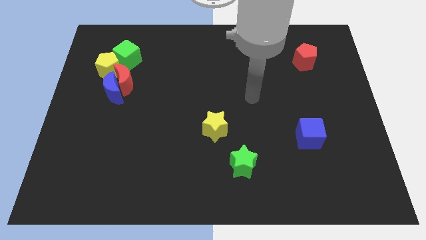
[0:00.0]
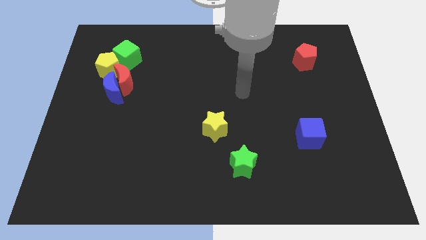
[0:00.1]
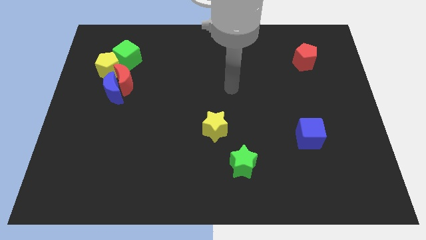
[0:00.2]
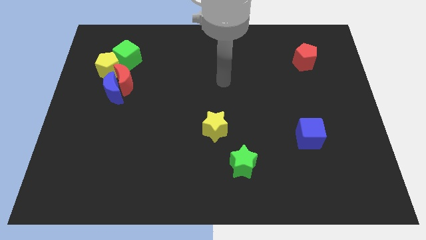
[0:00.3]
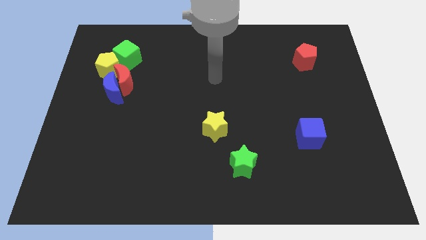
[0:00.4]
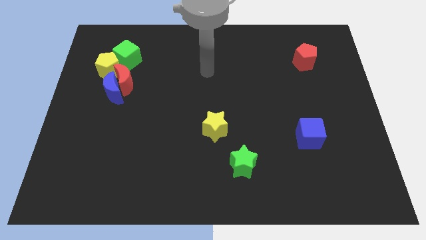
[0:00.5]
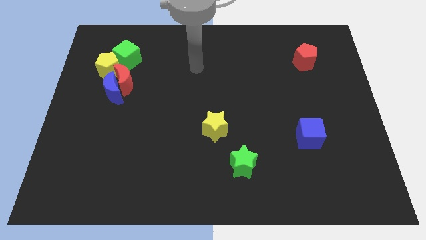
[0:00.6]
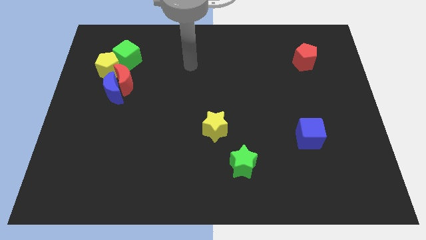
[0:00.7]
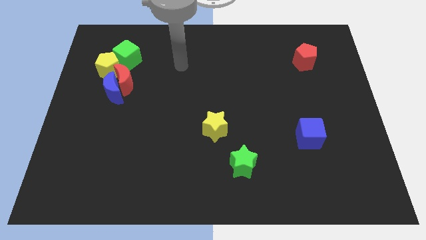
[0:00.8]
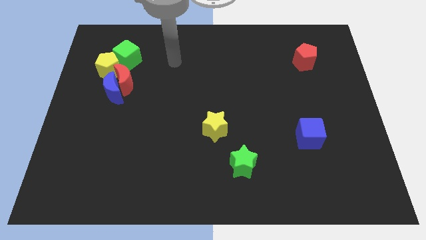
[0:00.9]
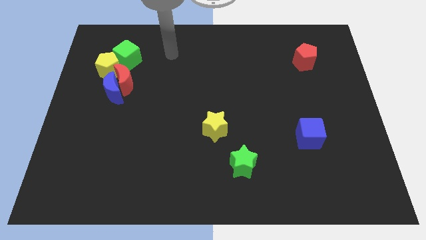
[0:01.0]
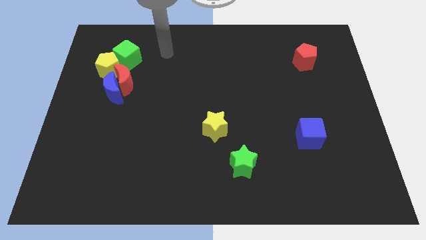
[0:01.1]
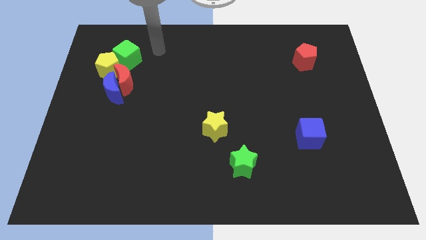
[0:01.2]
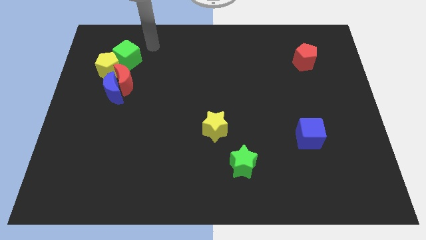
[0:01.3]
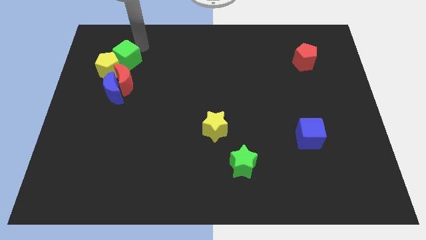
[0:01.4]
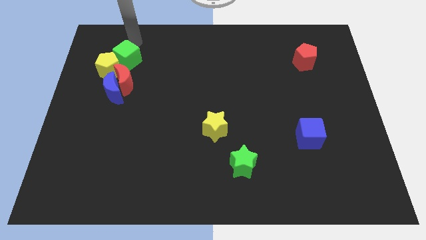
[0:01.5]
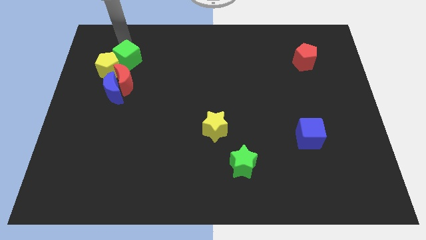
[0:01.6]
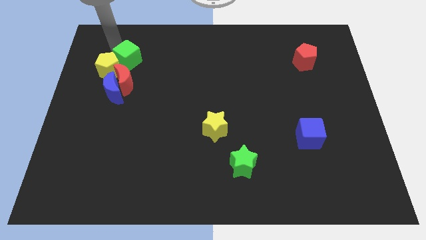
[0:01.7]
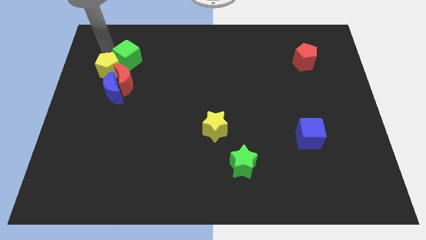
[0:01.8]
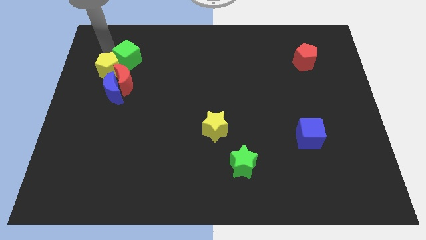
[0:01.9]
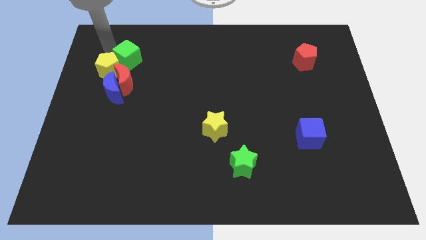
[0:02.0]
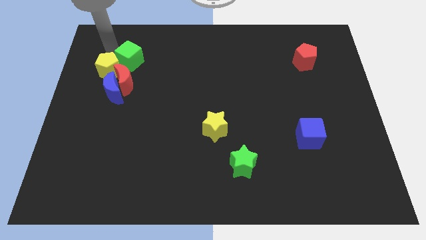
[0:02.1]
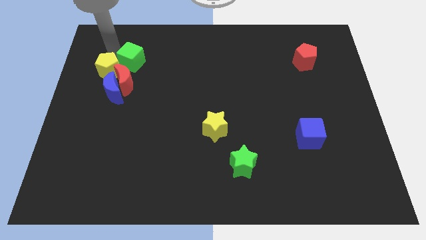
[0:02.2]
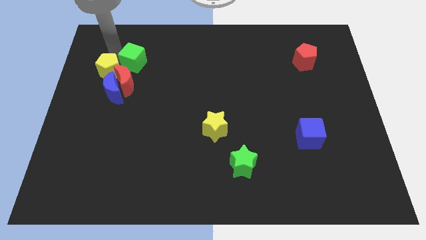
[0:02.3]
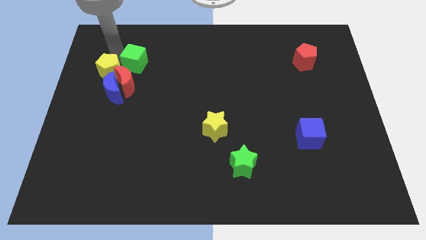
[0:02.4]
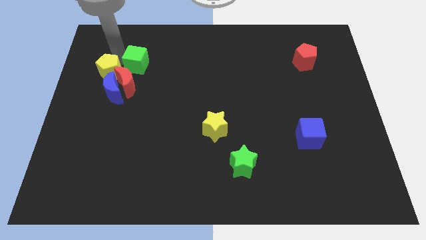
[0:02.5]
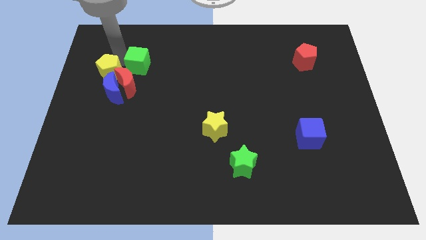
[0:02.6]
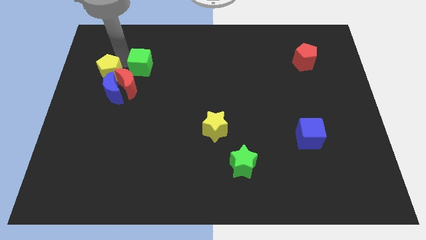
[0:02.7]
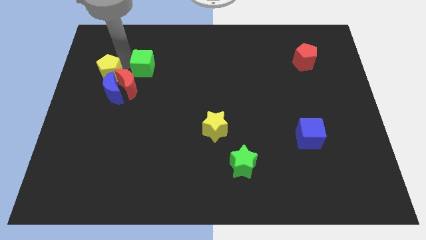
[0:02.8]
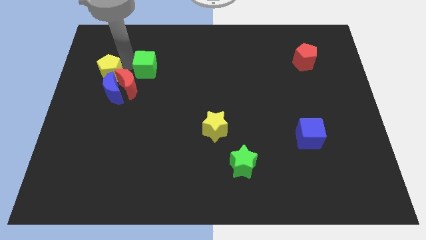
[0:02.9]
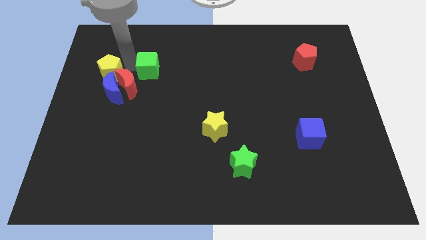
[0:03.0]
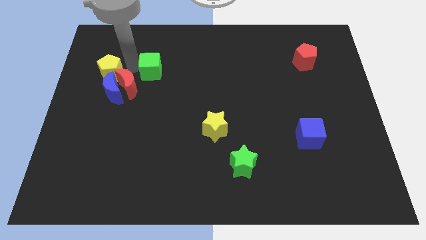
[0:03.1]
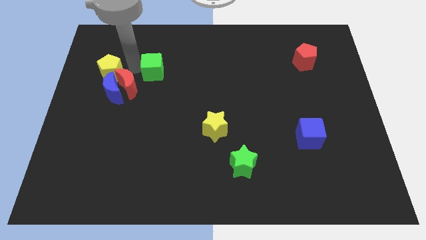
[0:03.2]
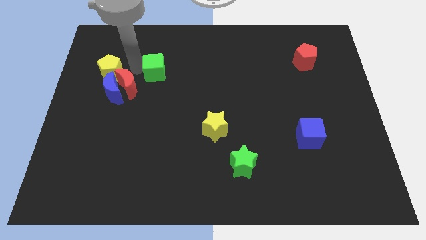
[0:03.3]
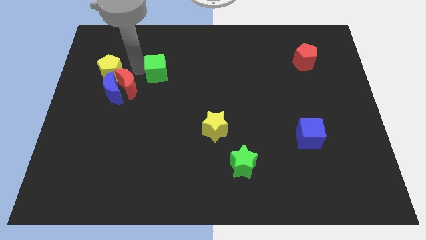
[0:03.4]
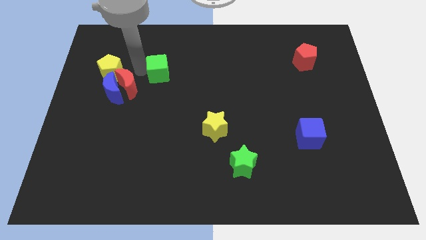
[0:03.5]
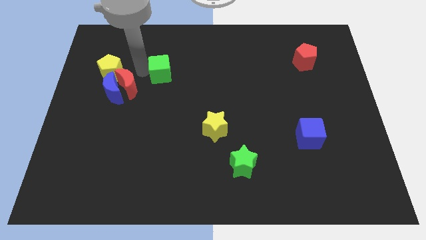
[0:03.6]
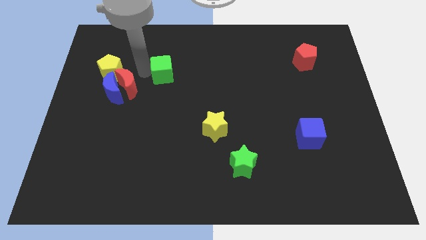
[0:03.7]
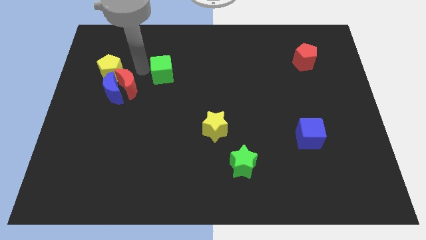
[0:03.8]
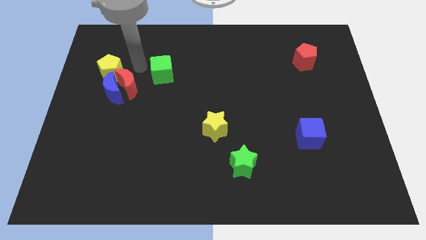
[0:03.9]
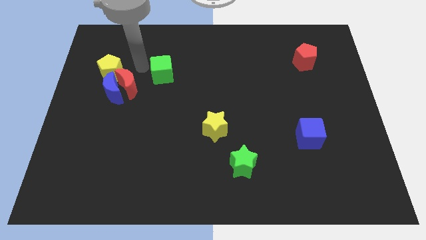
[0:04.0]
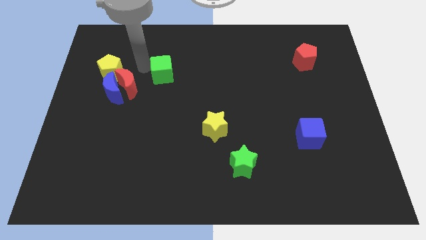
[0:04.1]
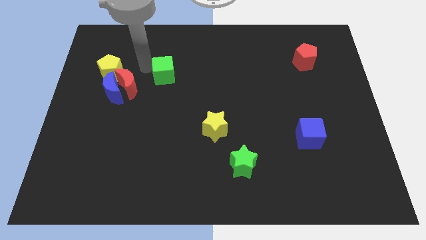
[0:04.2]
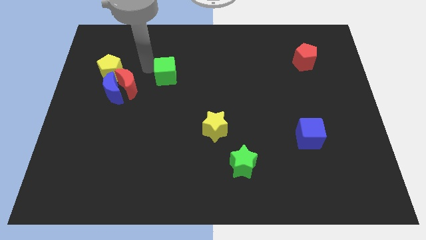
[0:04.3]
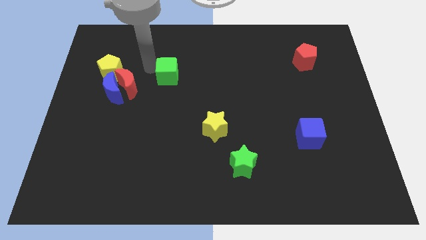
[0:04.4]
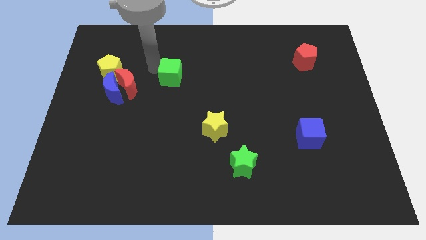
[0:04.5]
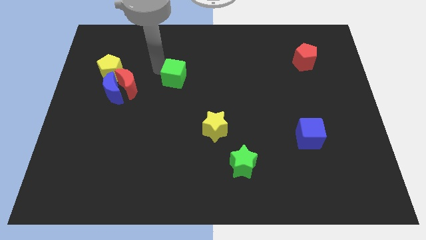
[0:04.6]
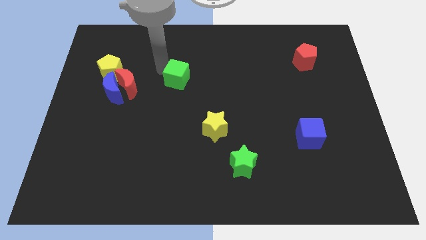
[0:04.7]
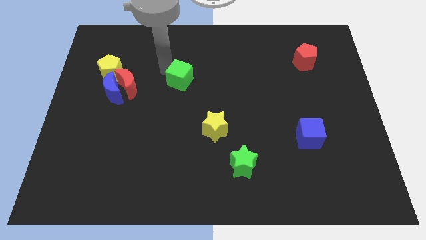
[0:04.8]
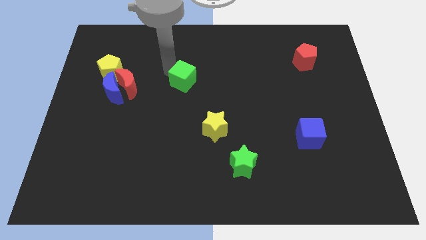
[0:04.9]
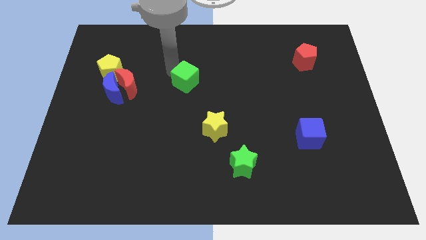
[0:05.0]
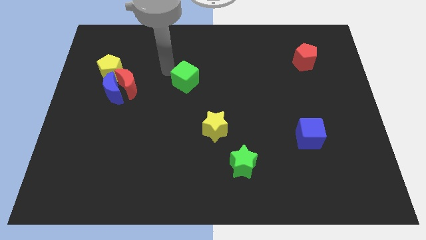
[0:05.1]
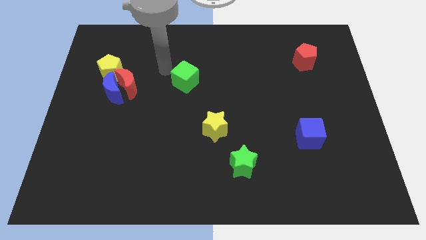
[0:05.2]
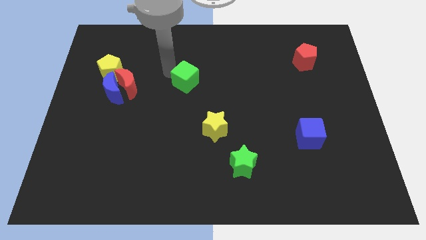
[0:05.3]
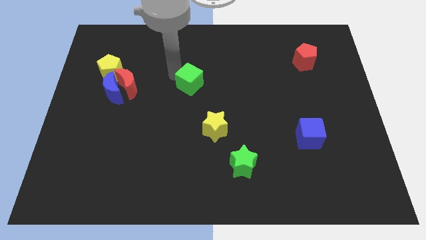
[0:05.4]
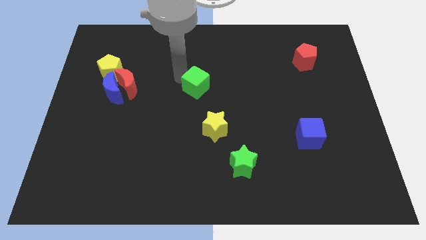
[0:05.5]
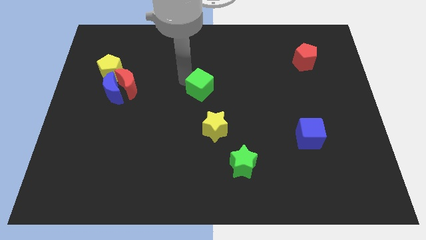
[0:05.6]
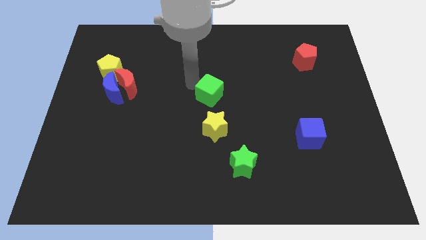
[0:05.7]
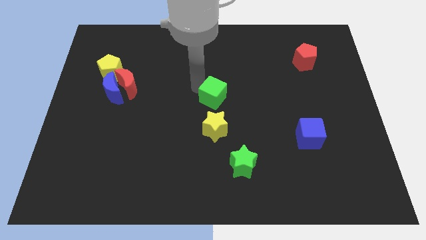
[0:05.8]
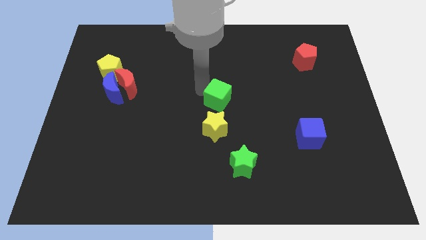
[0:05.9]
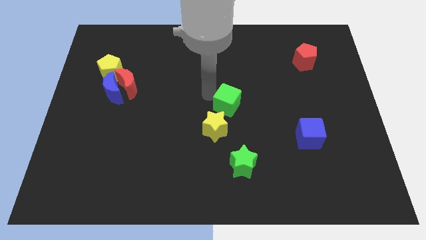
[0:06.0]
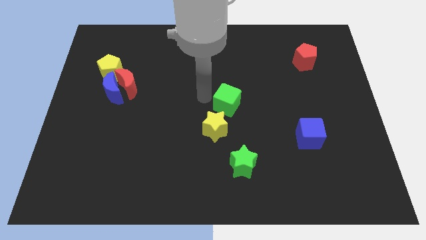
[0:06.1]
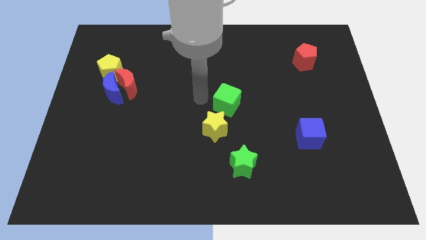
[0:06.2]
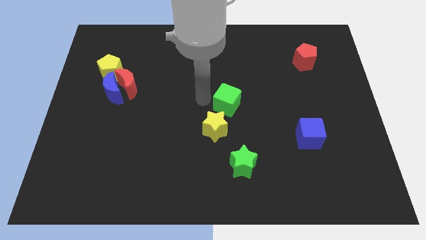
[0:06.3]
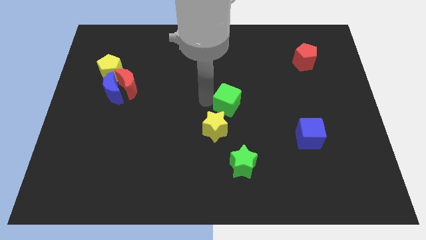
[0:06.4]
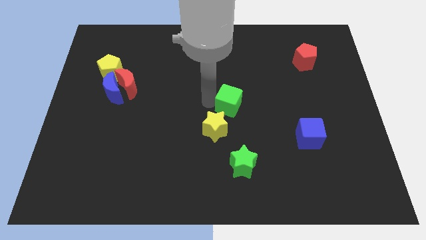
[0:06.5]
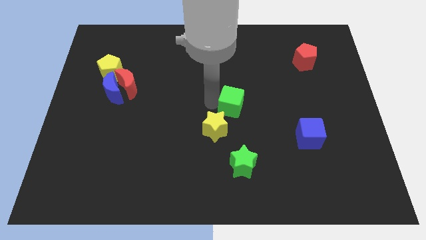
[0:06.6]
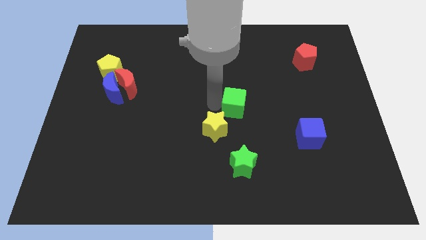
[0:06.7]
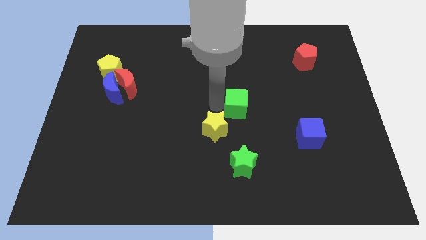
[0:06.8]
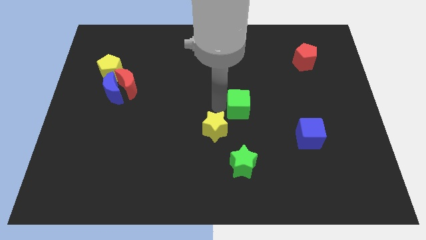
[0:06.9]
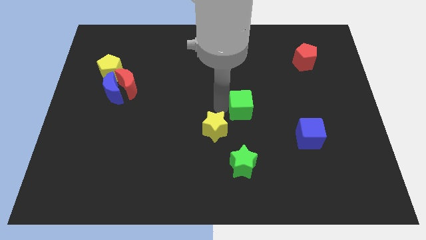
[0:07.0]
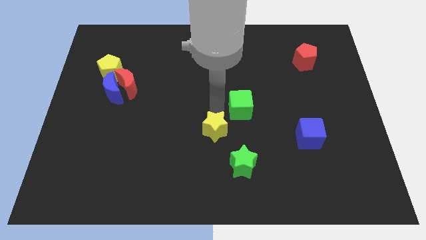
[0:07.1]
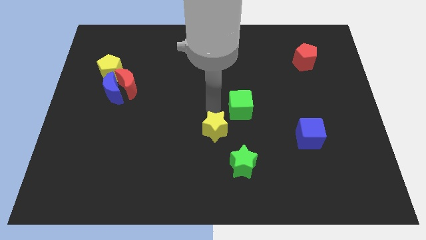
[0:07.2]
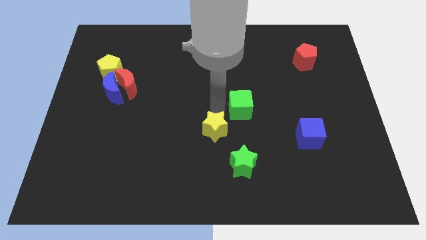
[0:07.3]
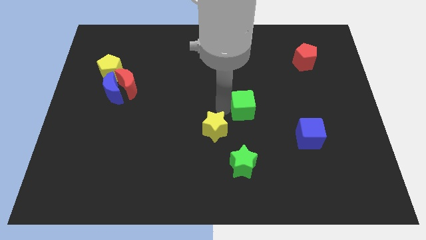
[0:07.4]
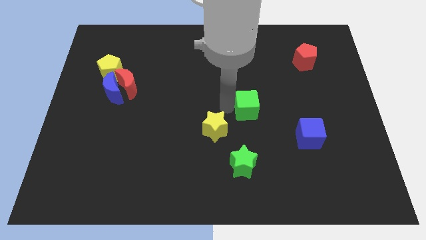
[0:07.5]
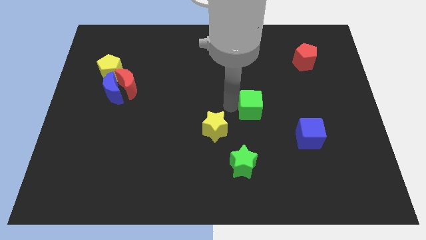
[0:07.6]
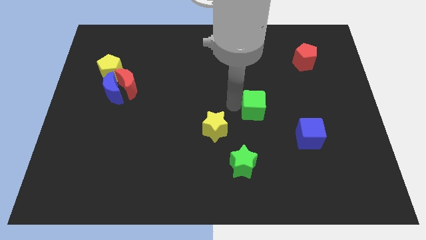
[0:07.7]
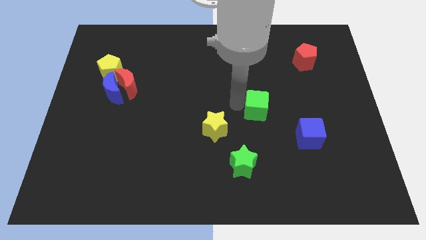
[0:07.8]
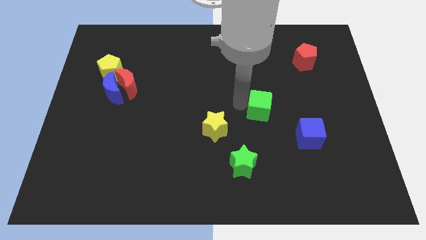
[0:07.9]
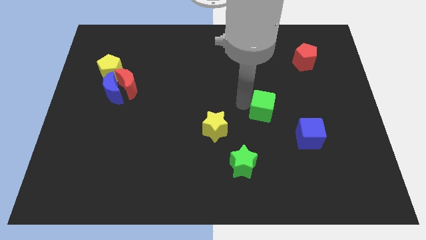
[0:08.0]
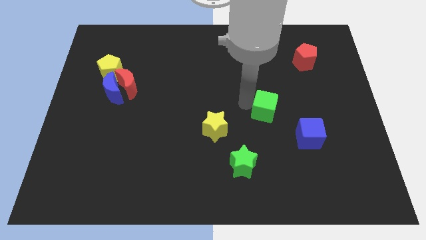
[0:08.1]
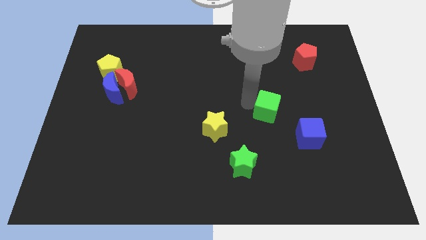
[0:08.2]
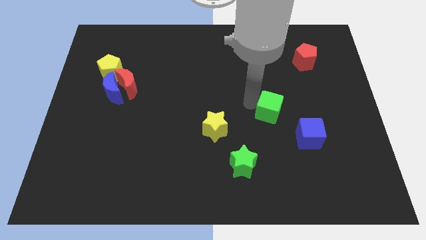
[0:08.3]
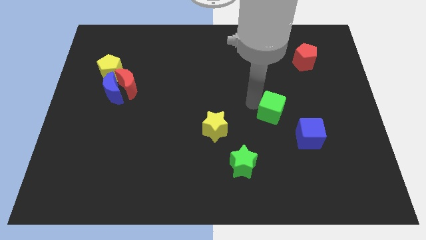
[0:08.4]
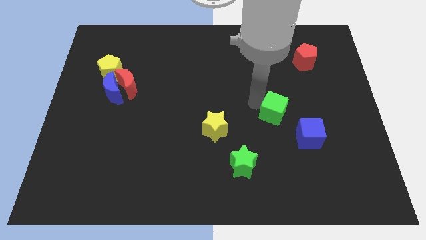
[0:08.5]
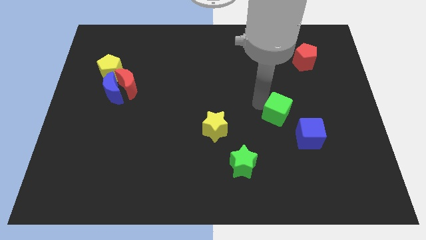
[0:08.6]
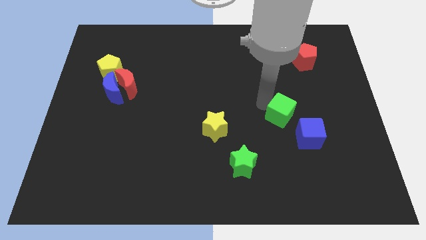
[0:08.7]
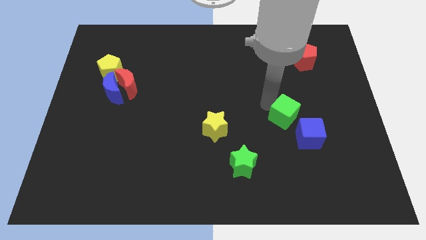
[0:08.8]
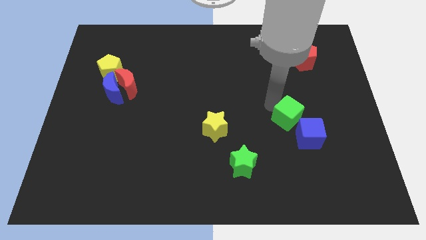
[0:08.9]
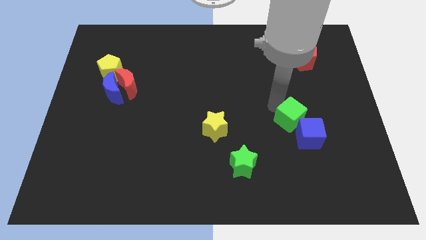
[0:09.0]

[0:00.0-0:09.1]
move the green cube close to the blue cube
